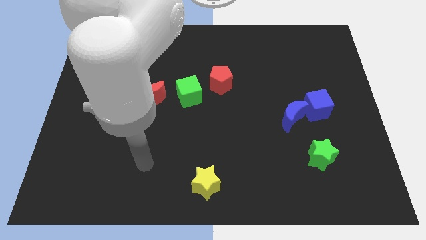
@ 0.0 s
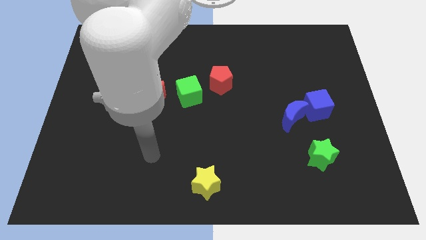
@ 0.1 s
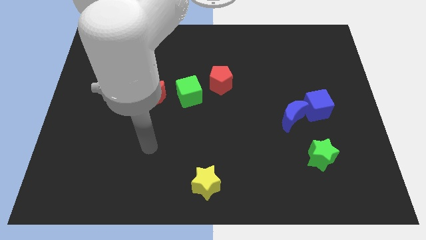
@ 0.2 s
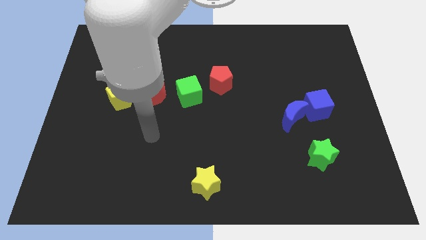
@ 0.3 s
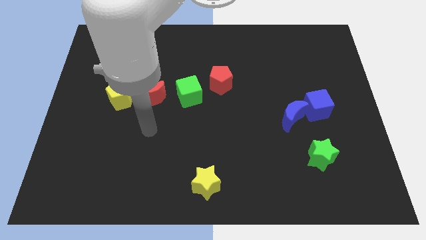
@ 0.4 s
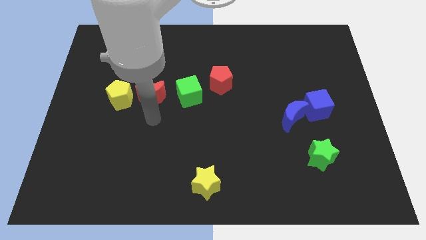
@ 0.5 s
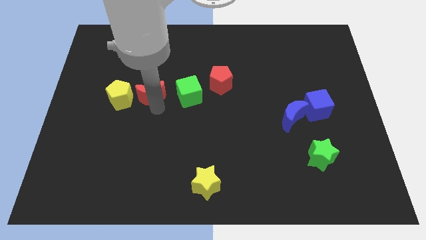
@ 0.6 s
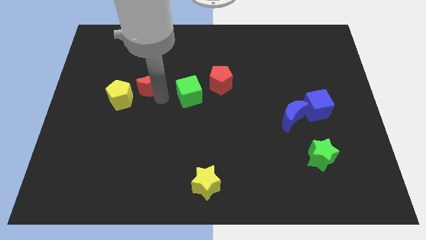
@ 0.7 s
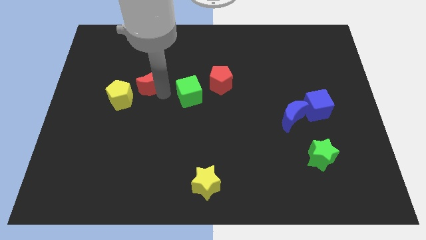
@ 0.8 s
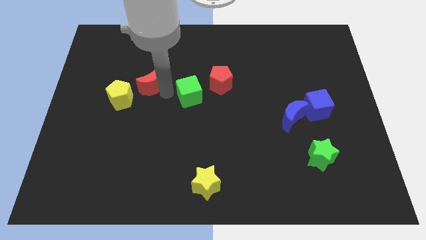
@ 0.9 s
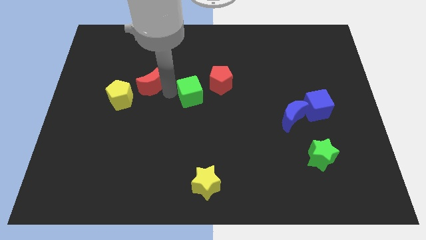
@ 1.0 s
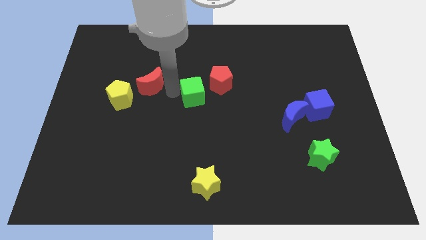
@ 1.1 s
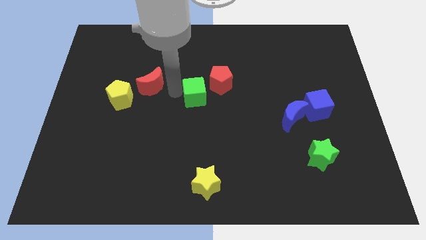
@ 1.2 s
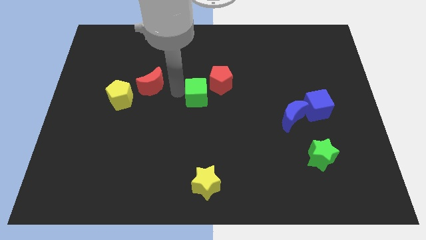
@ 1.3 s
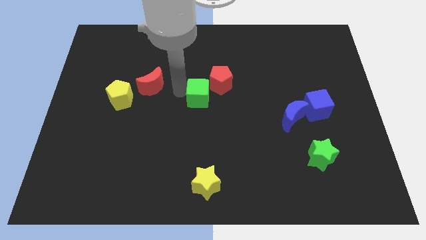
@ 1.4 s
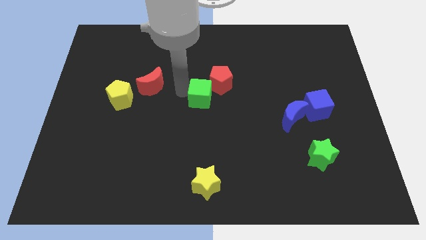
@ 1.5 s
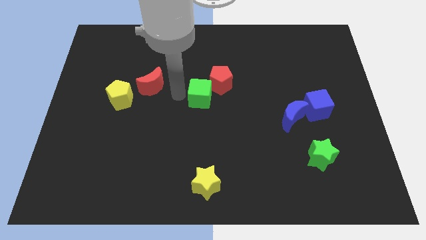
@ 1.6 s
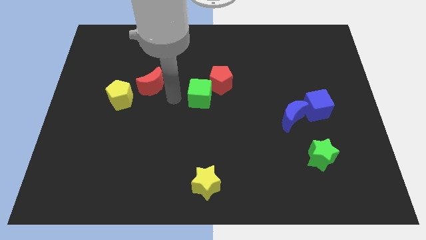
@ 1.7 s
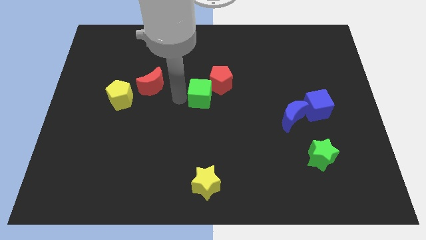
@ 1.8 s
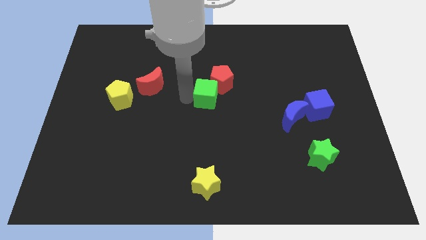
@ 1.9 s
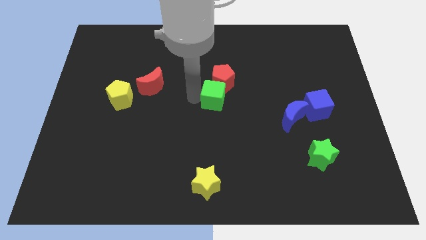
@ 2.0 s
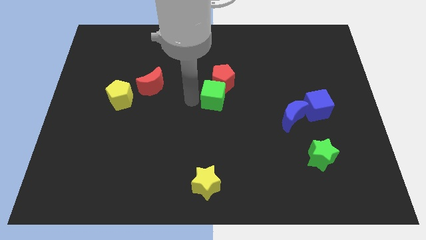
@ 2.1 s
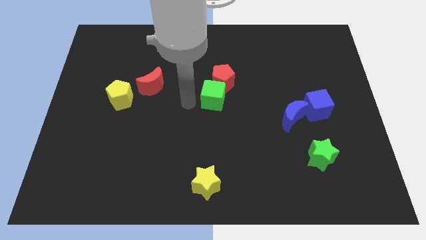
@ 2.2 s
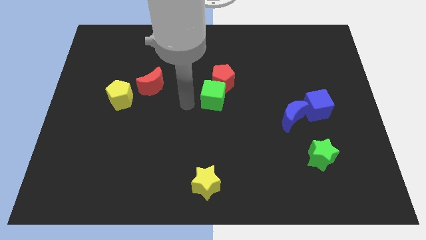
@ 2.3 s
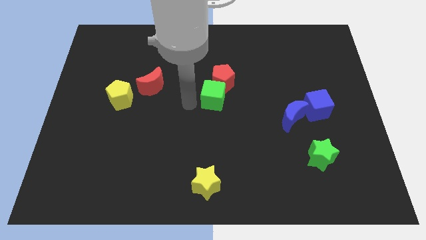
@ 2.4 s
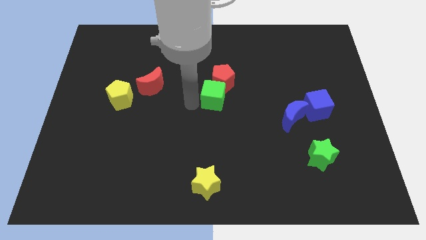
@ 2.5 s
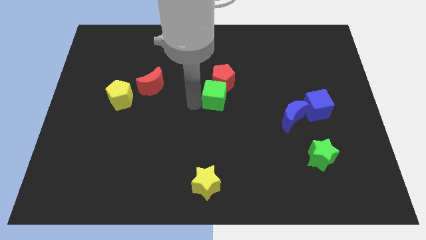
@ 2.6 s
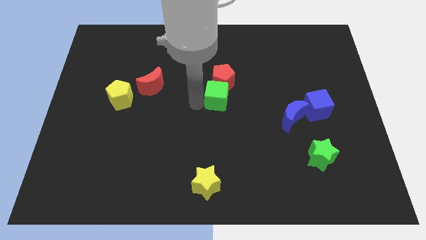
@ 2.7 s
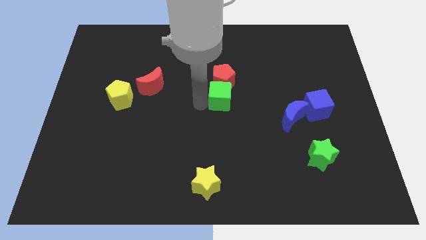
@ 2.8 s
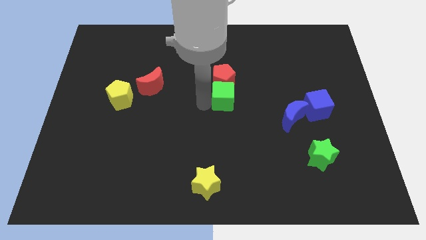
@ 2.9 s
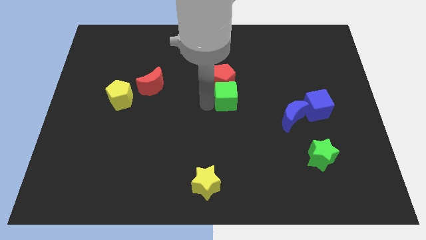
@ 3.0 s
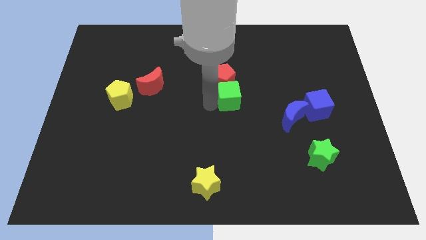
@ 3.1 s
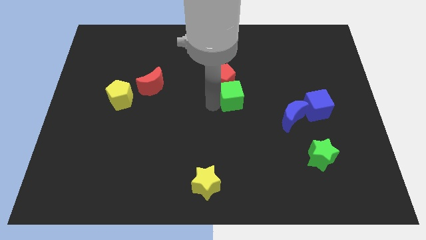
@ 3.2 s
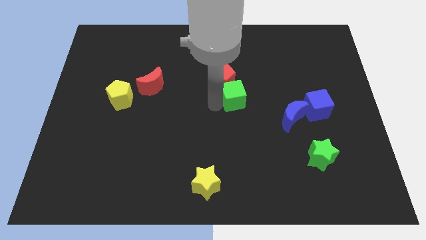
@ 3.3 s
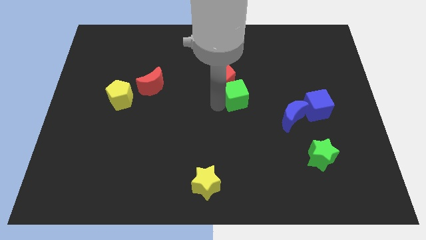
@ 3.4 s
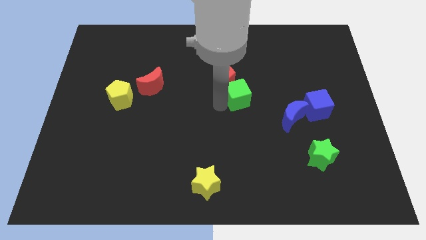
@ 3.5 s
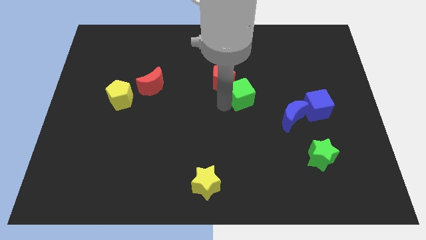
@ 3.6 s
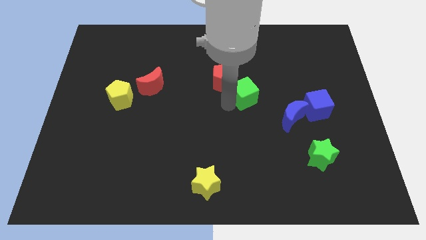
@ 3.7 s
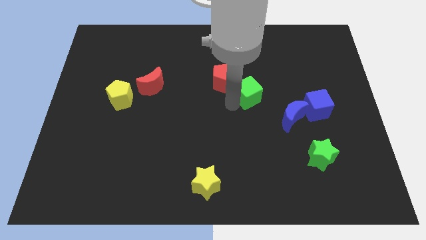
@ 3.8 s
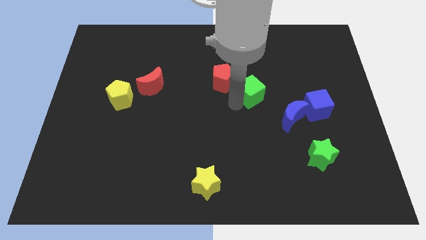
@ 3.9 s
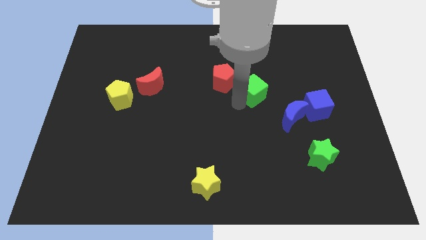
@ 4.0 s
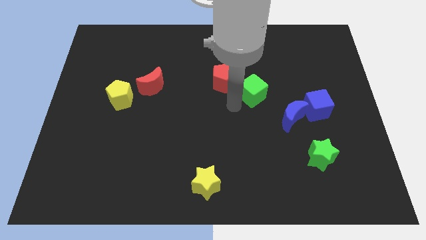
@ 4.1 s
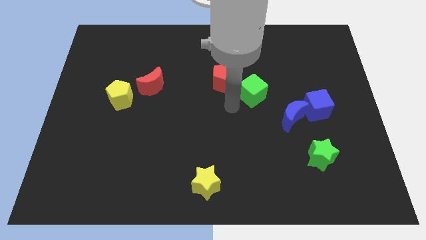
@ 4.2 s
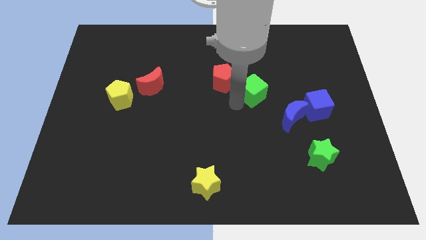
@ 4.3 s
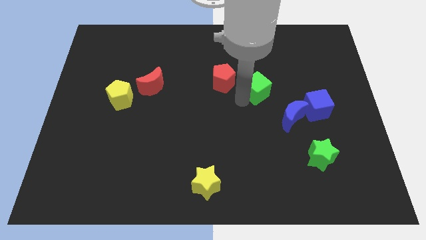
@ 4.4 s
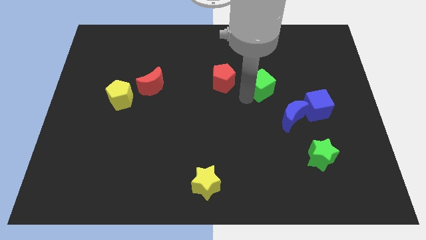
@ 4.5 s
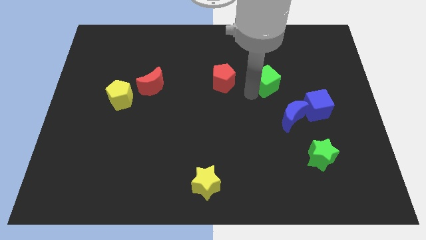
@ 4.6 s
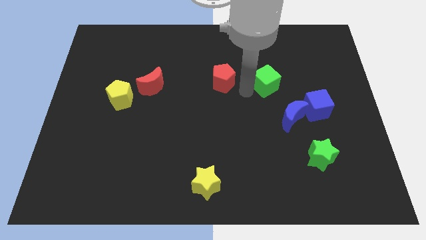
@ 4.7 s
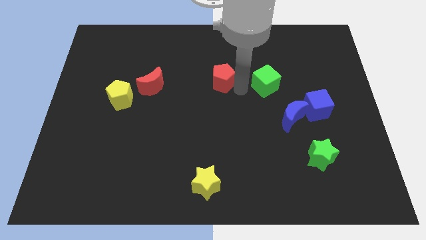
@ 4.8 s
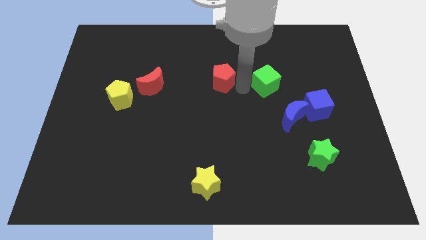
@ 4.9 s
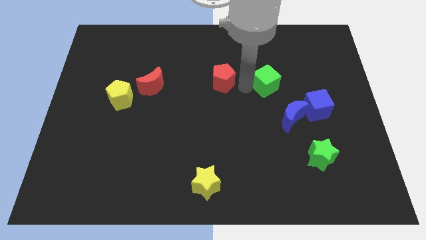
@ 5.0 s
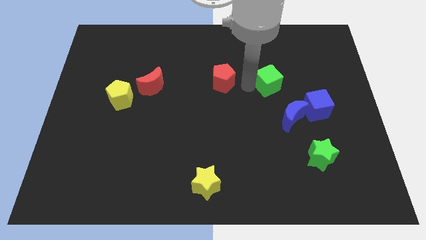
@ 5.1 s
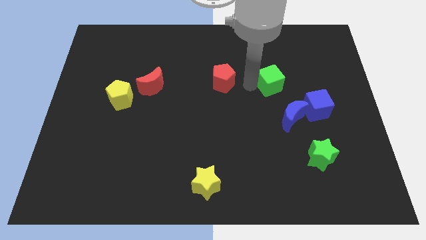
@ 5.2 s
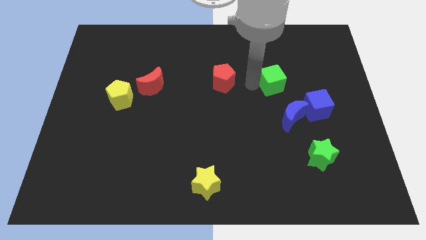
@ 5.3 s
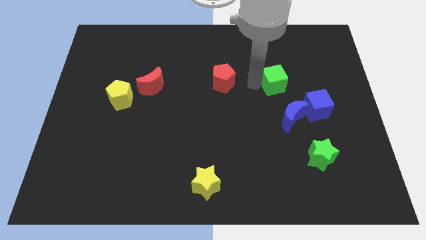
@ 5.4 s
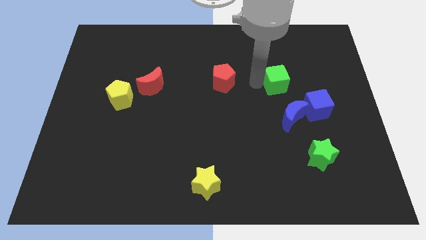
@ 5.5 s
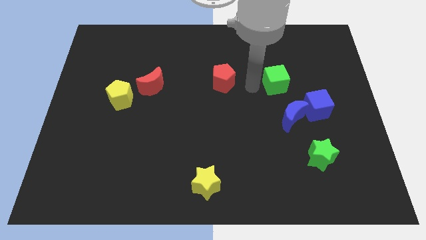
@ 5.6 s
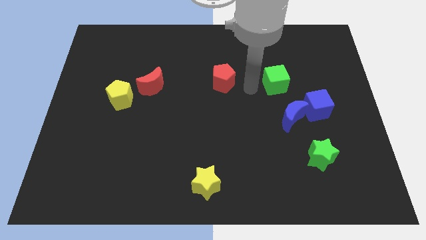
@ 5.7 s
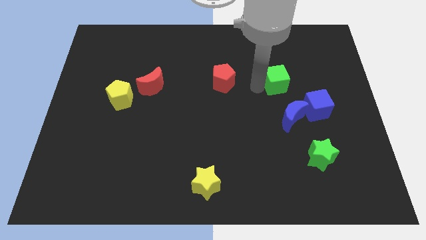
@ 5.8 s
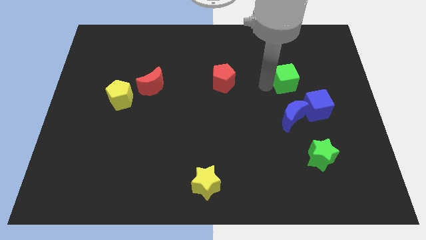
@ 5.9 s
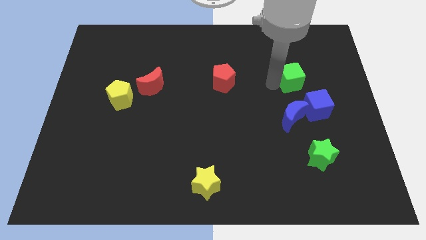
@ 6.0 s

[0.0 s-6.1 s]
put the green cube above the blue cube

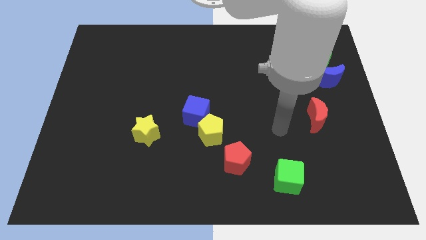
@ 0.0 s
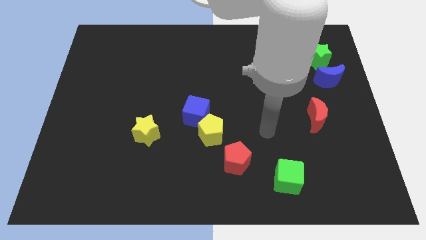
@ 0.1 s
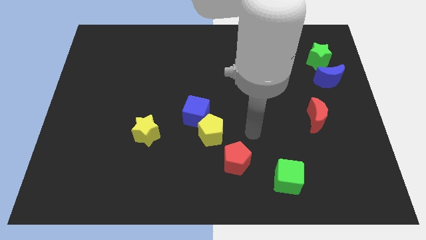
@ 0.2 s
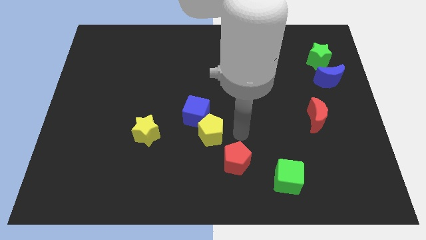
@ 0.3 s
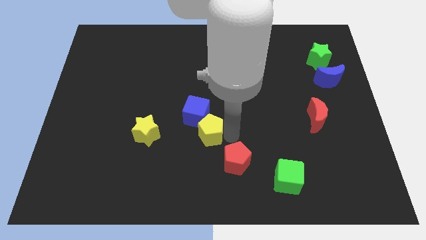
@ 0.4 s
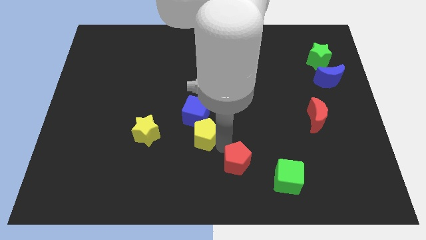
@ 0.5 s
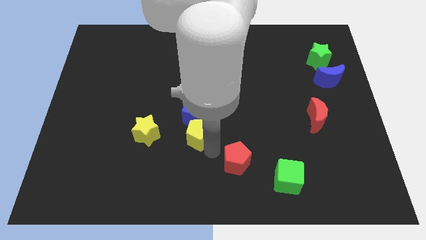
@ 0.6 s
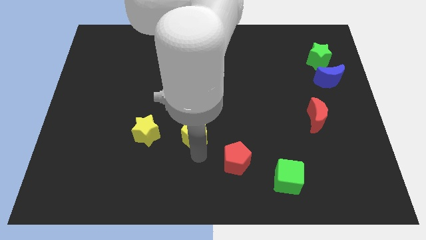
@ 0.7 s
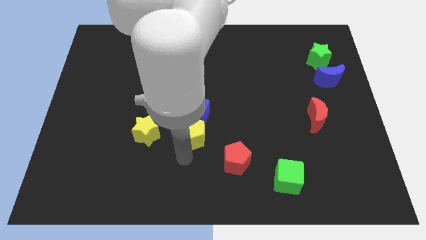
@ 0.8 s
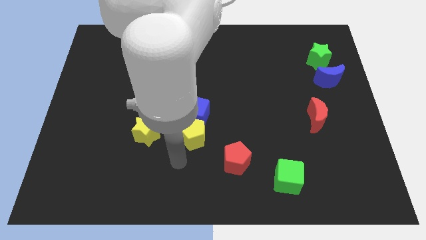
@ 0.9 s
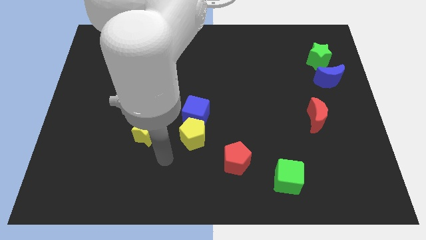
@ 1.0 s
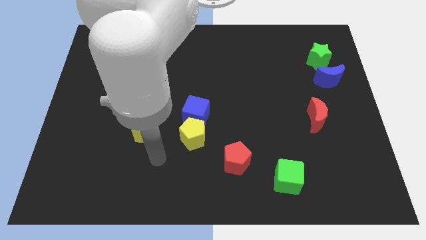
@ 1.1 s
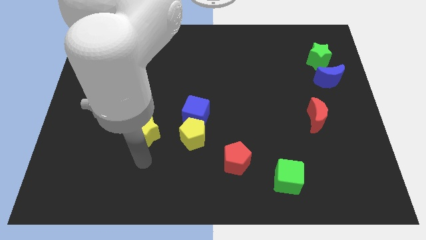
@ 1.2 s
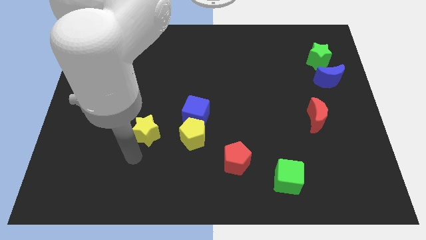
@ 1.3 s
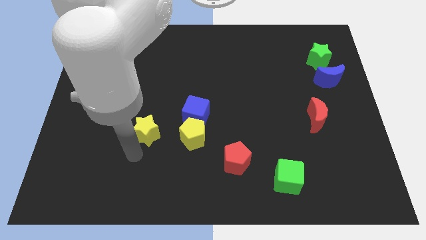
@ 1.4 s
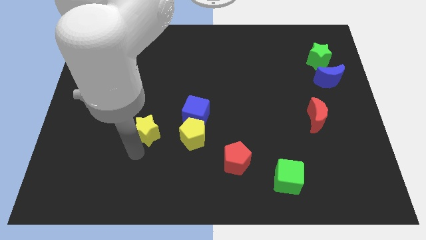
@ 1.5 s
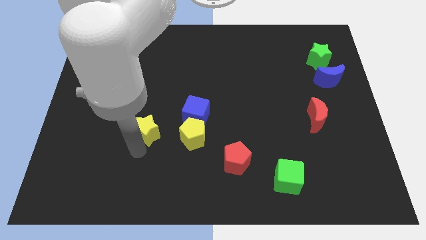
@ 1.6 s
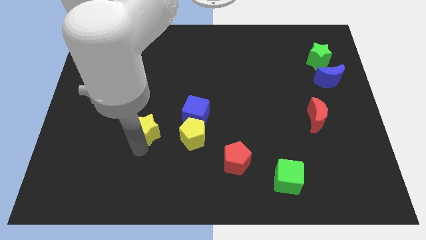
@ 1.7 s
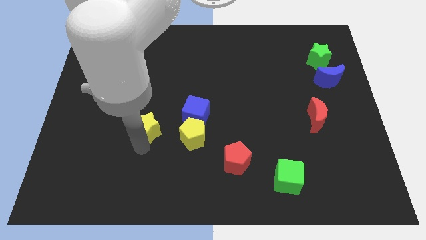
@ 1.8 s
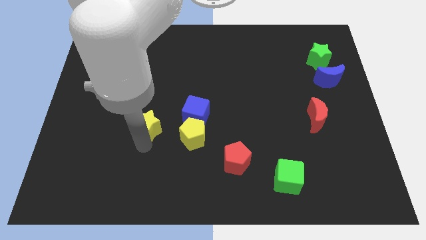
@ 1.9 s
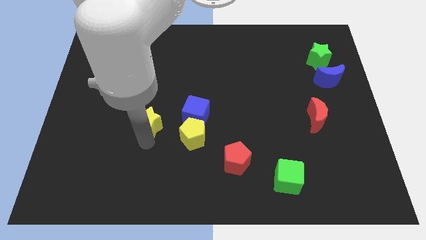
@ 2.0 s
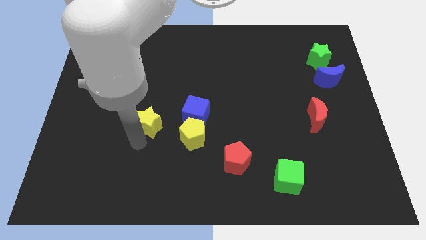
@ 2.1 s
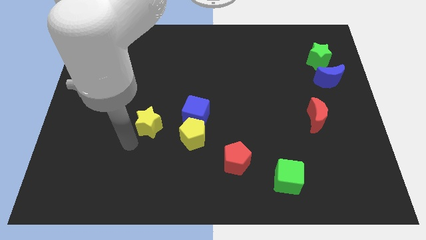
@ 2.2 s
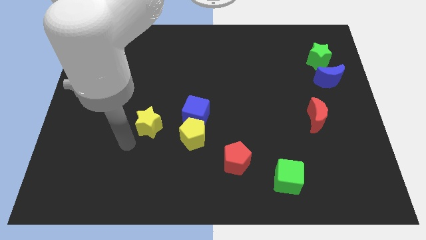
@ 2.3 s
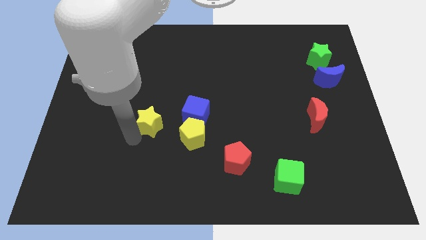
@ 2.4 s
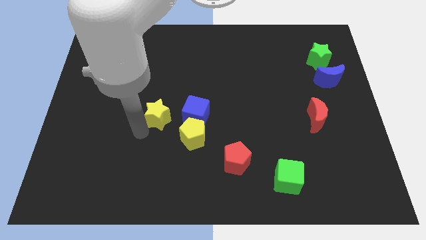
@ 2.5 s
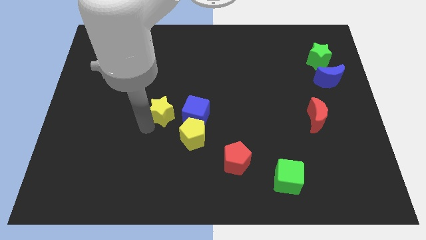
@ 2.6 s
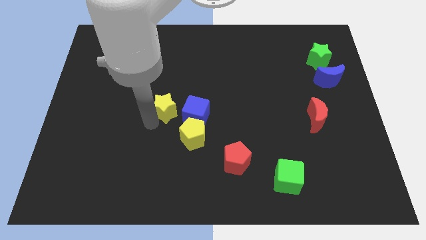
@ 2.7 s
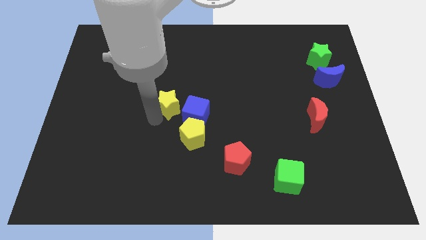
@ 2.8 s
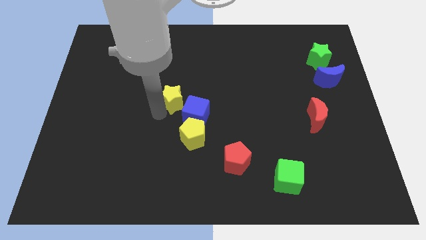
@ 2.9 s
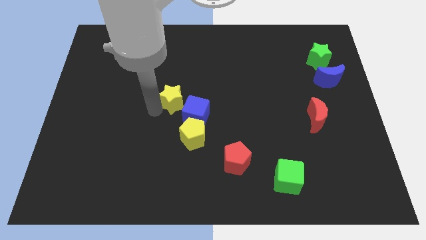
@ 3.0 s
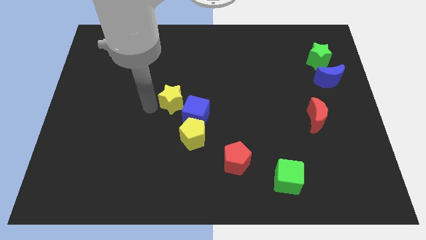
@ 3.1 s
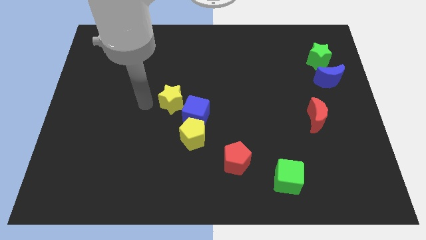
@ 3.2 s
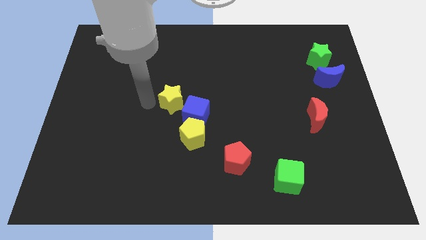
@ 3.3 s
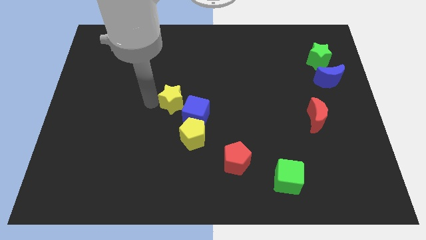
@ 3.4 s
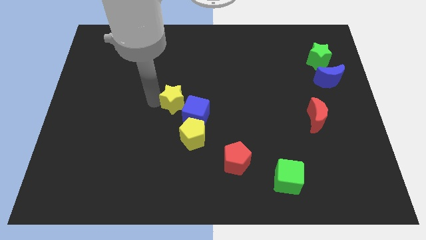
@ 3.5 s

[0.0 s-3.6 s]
push the yellow star to the top side of the yellow pentagon
